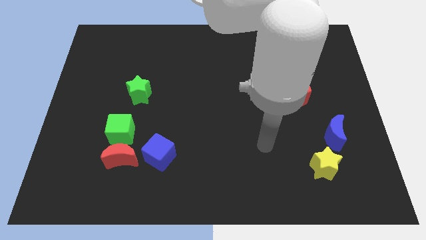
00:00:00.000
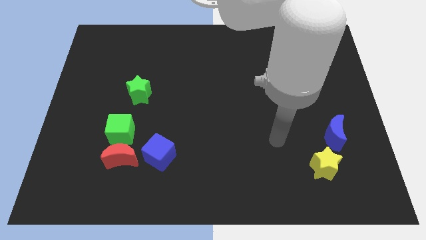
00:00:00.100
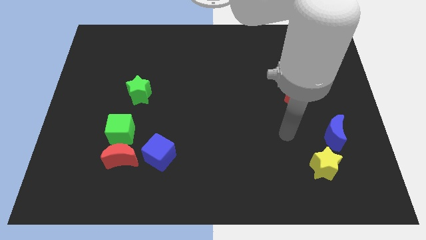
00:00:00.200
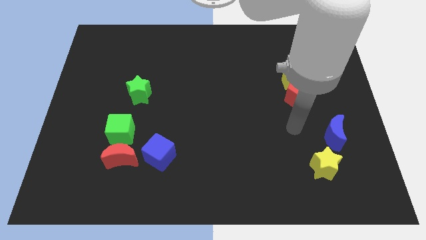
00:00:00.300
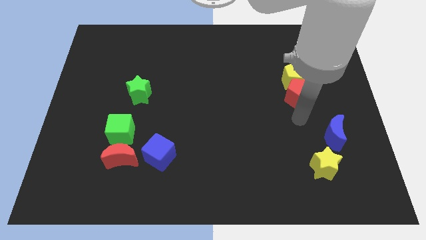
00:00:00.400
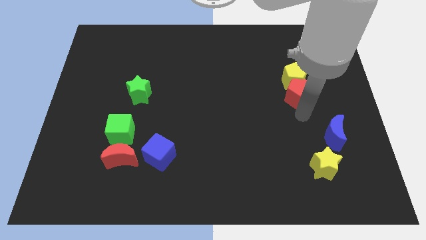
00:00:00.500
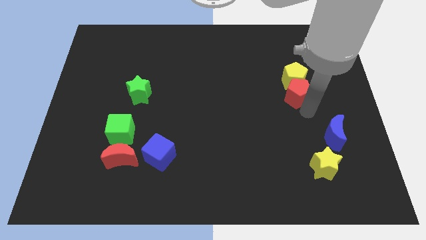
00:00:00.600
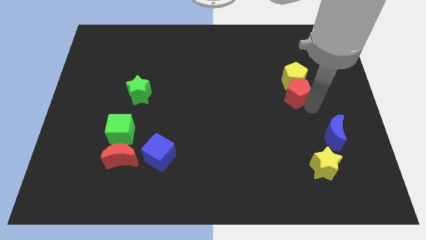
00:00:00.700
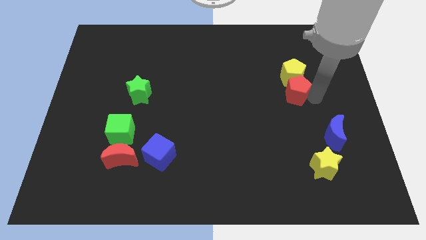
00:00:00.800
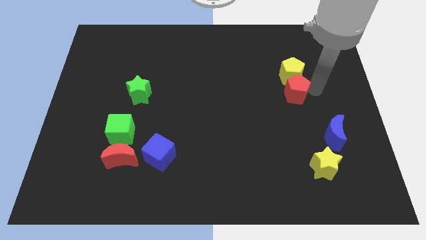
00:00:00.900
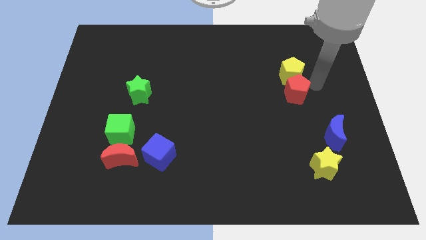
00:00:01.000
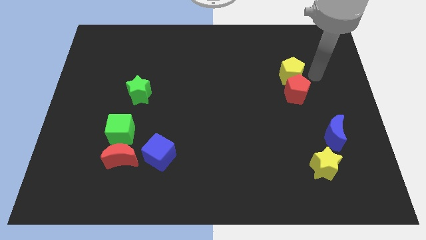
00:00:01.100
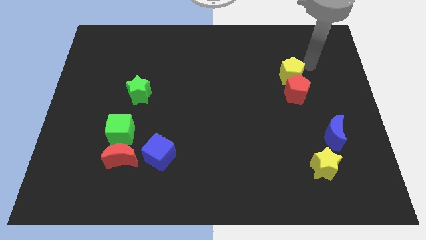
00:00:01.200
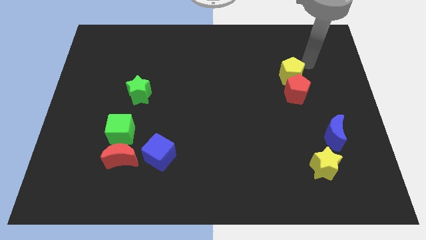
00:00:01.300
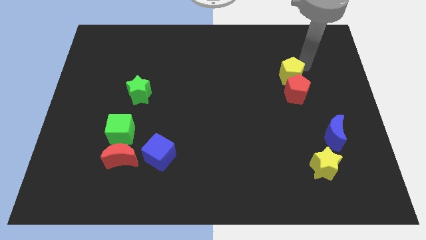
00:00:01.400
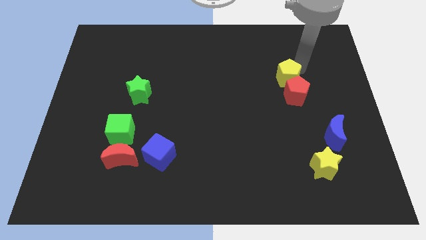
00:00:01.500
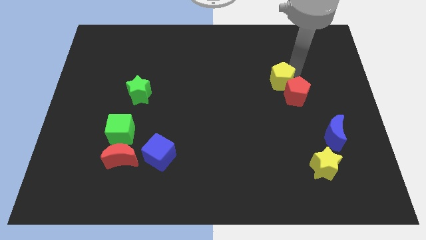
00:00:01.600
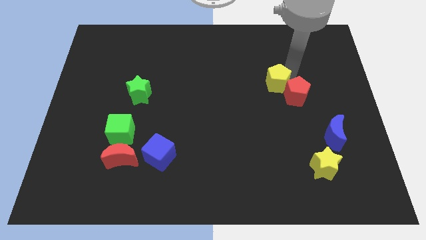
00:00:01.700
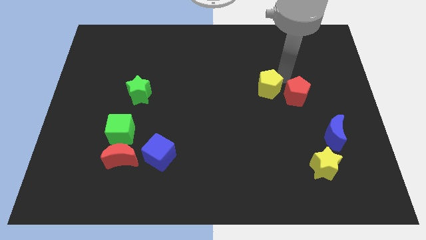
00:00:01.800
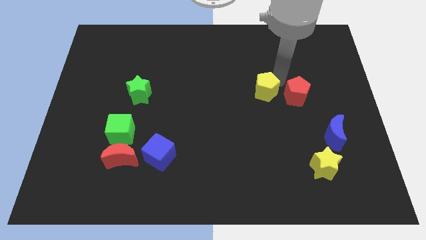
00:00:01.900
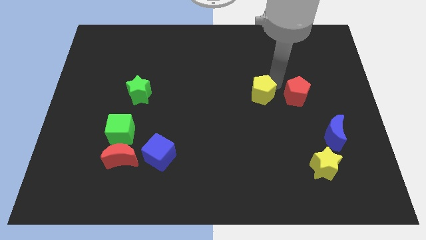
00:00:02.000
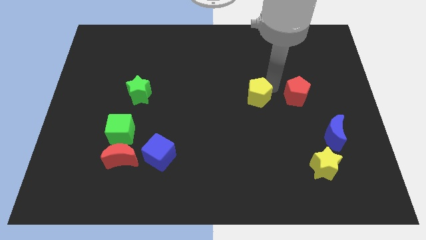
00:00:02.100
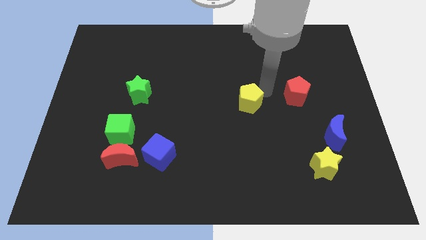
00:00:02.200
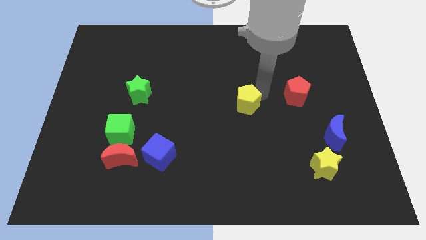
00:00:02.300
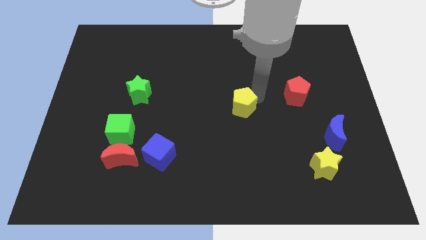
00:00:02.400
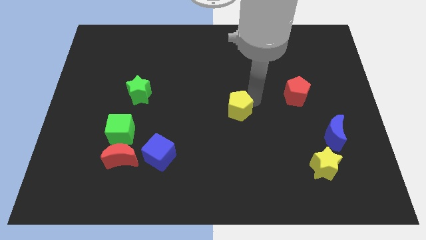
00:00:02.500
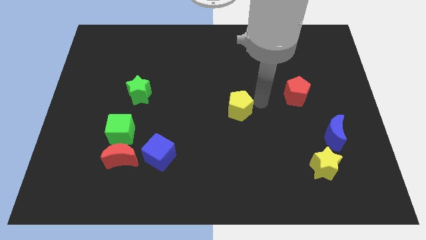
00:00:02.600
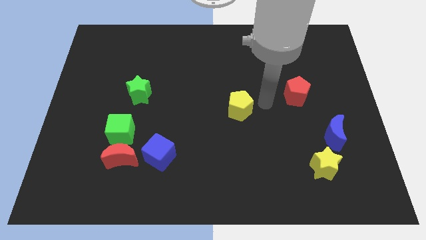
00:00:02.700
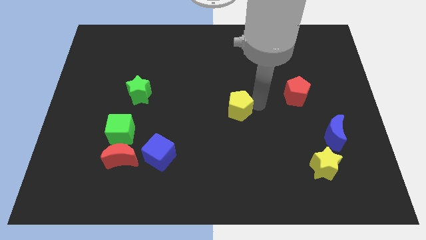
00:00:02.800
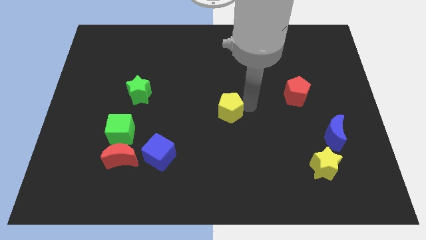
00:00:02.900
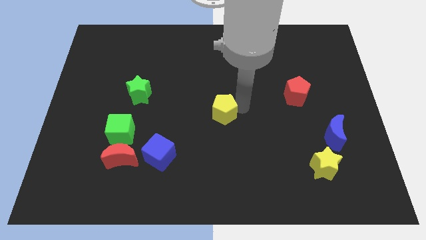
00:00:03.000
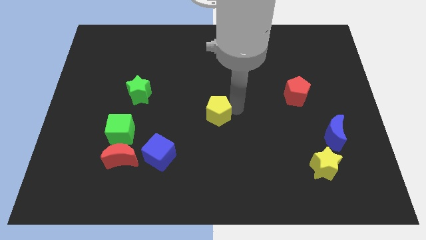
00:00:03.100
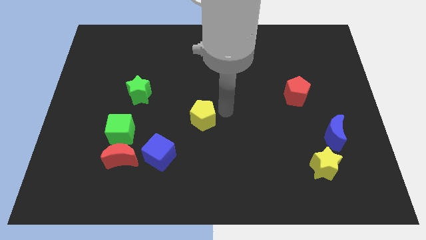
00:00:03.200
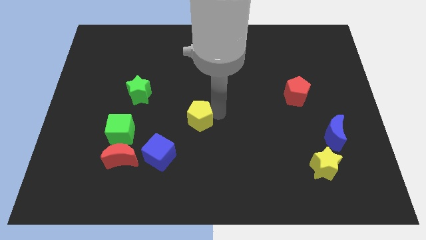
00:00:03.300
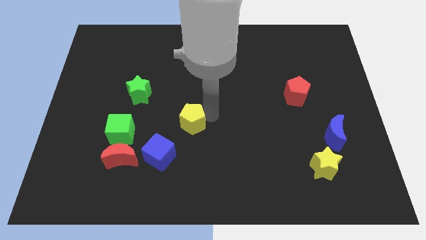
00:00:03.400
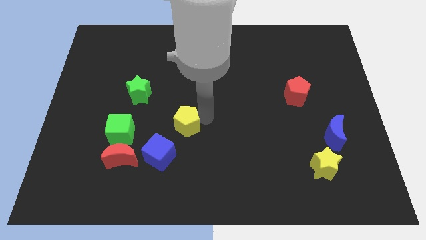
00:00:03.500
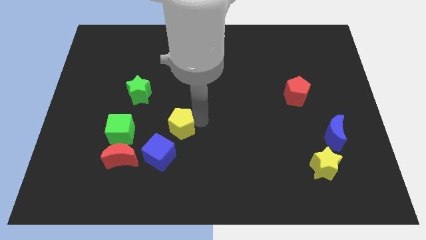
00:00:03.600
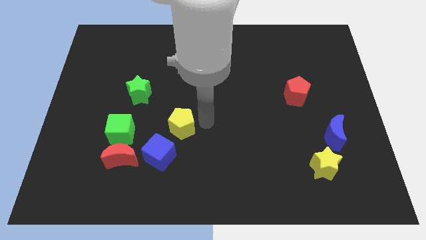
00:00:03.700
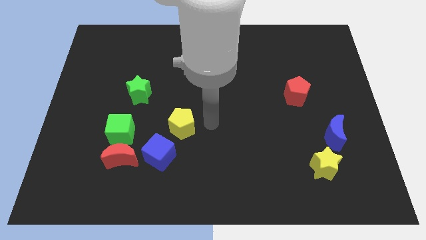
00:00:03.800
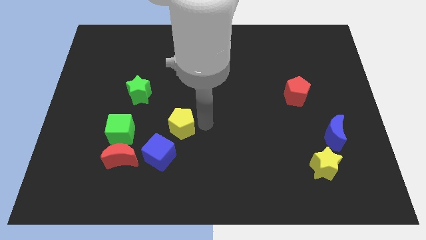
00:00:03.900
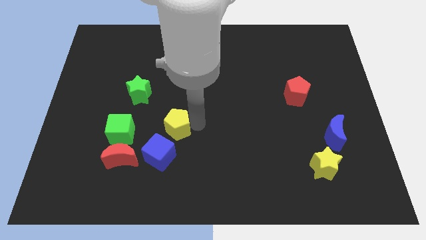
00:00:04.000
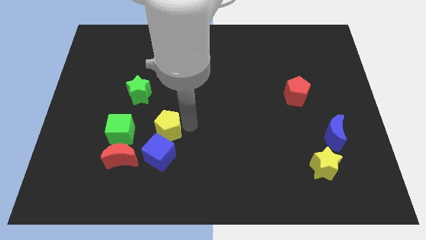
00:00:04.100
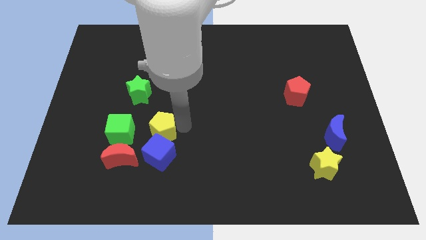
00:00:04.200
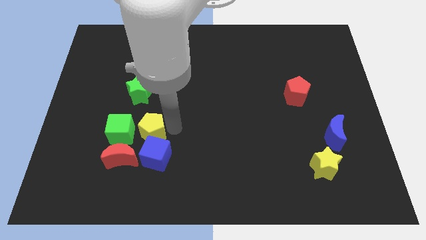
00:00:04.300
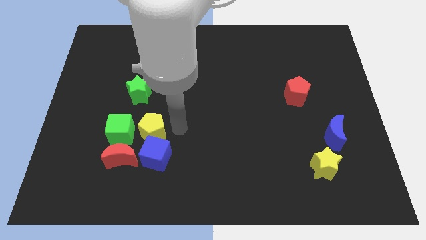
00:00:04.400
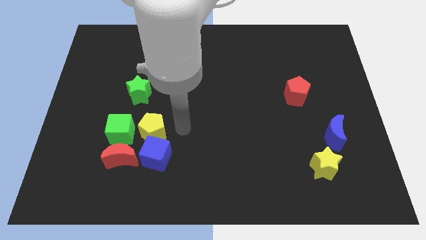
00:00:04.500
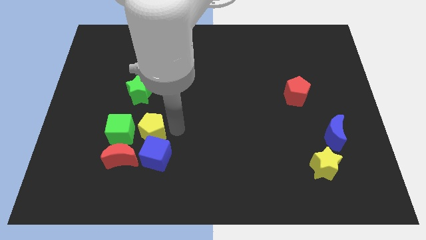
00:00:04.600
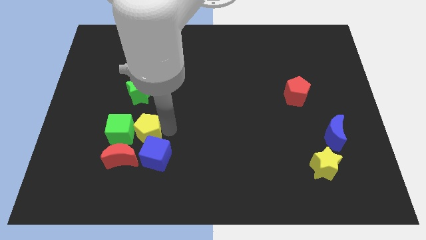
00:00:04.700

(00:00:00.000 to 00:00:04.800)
put the yellow pentagon next to the green cube

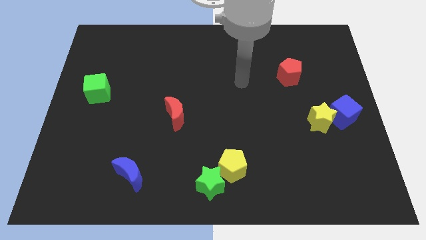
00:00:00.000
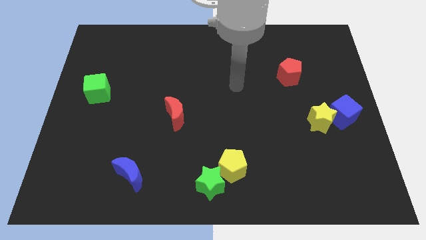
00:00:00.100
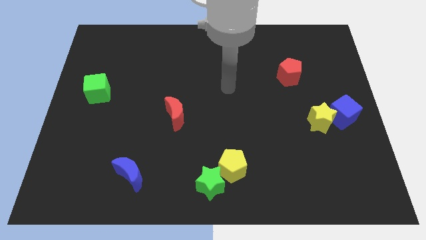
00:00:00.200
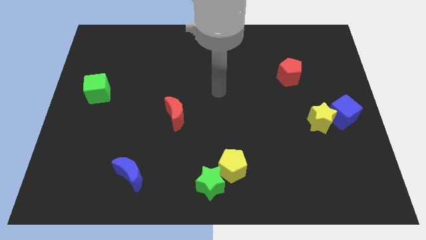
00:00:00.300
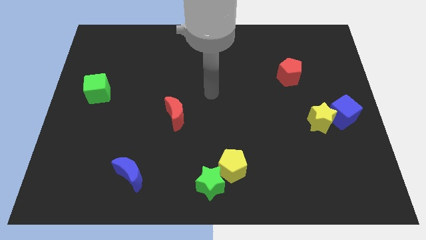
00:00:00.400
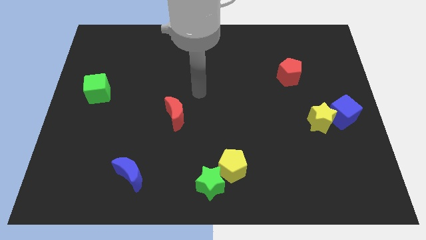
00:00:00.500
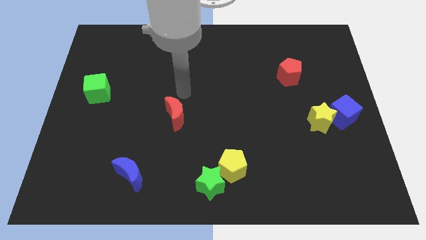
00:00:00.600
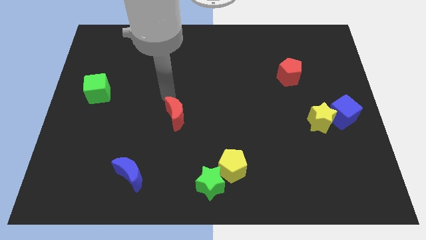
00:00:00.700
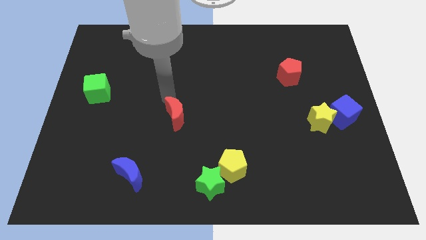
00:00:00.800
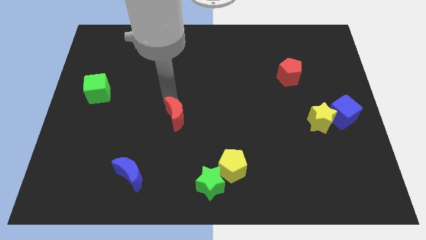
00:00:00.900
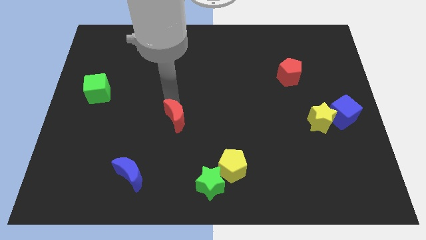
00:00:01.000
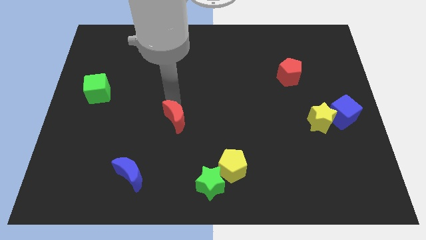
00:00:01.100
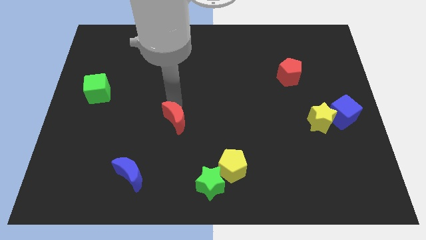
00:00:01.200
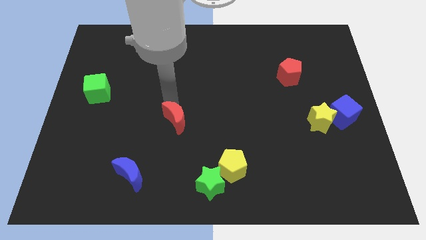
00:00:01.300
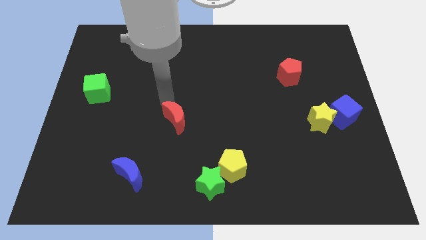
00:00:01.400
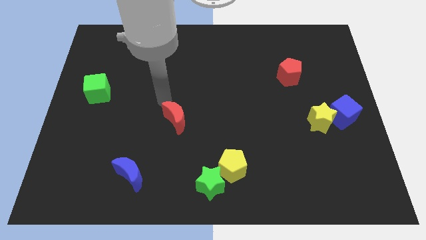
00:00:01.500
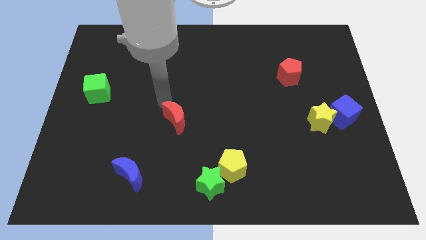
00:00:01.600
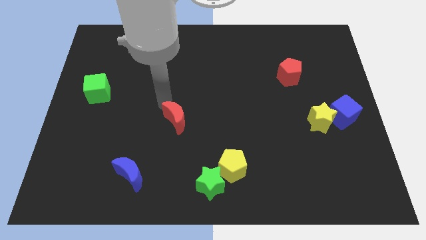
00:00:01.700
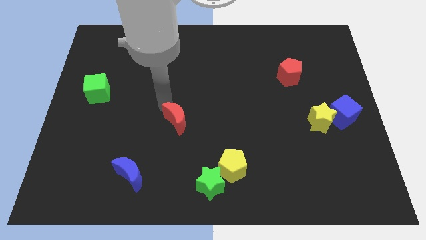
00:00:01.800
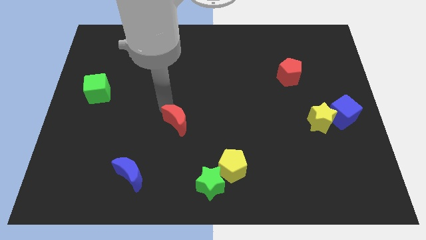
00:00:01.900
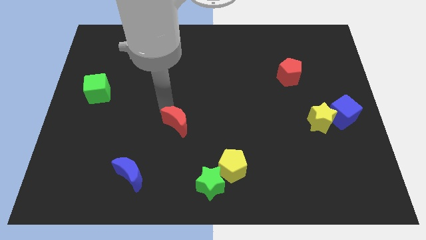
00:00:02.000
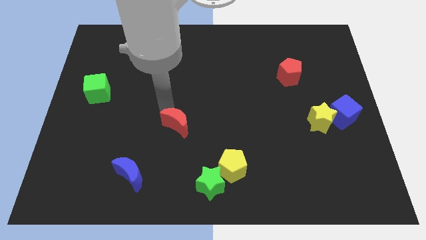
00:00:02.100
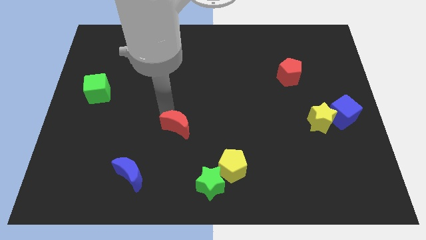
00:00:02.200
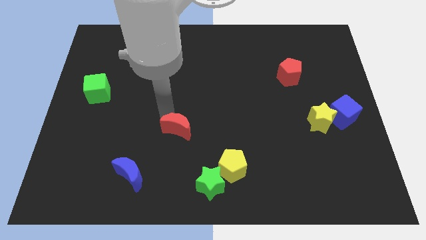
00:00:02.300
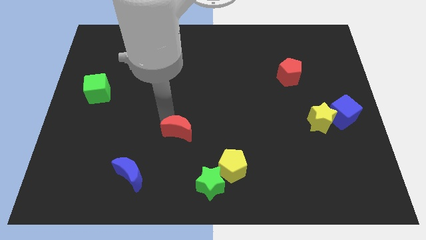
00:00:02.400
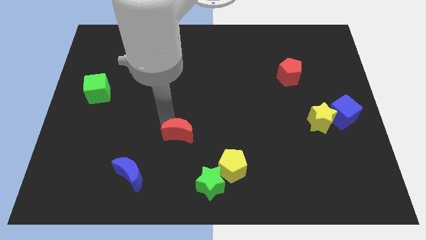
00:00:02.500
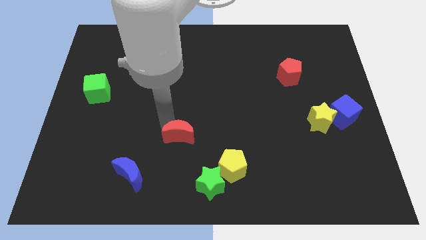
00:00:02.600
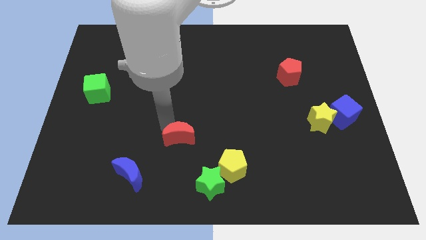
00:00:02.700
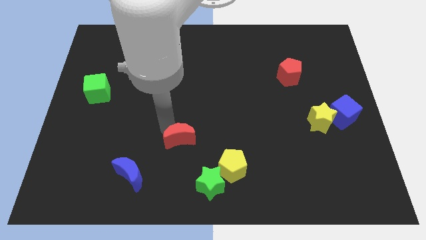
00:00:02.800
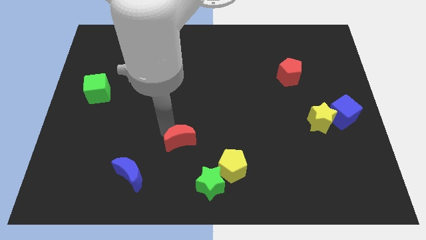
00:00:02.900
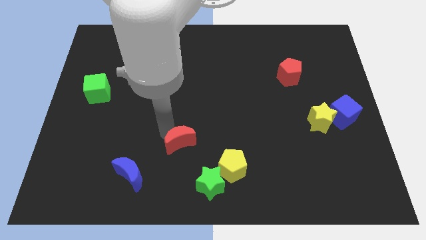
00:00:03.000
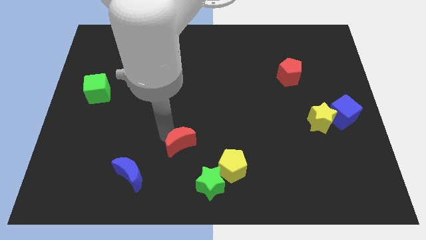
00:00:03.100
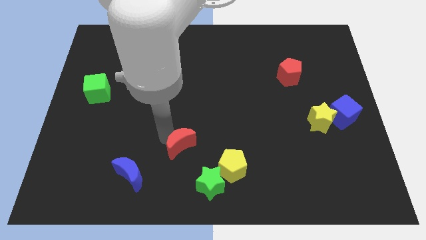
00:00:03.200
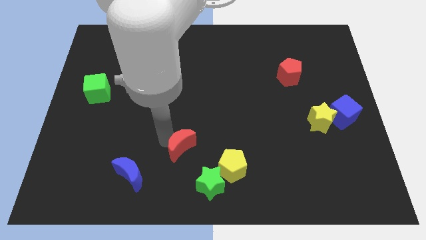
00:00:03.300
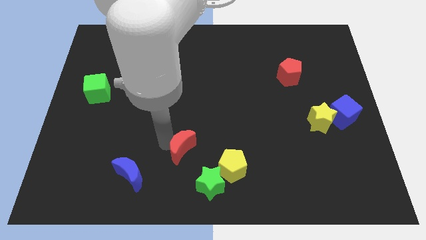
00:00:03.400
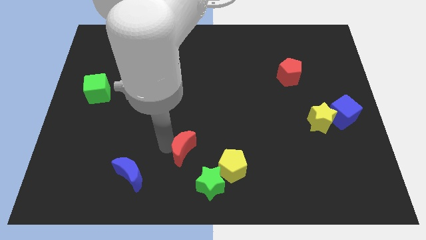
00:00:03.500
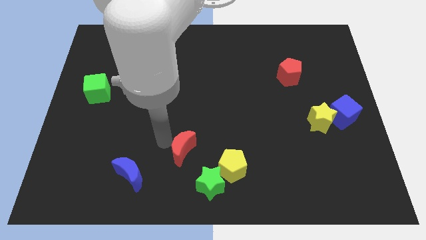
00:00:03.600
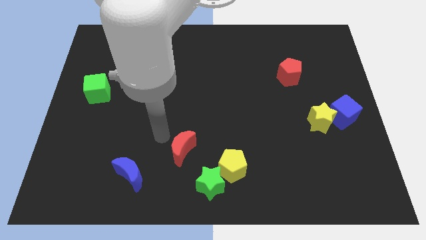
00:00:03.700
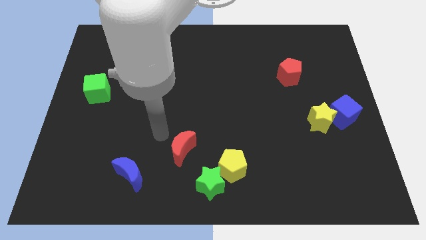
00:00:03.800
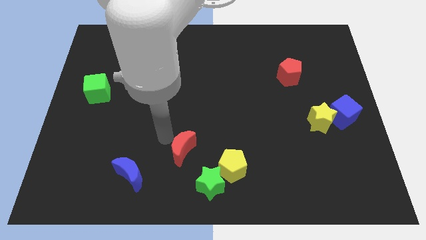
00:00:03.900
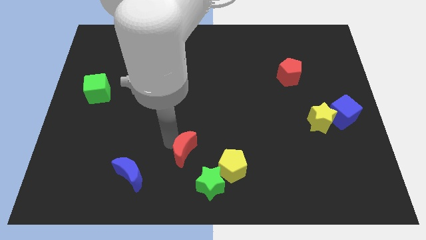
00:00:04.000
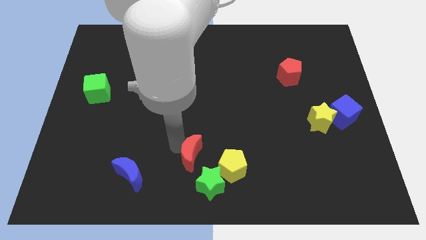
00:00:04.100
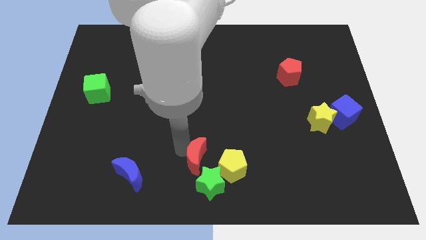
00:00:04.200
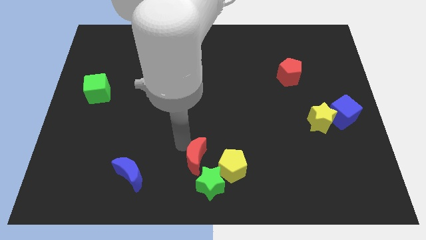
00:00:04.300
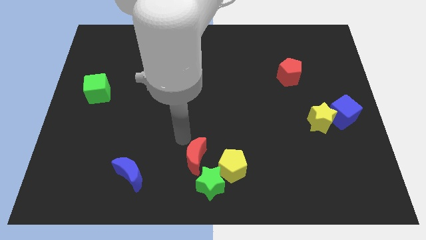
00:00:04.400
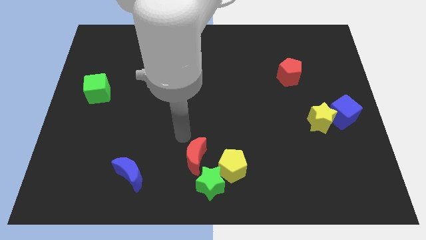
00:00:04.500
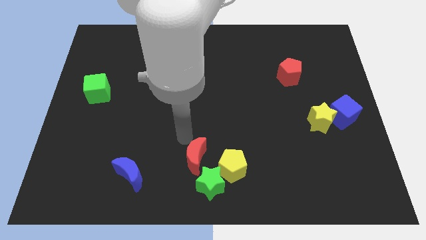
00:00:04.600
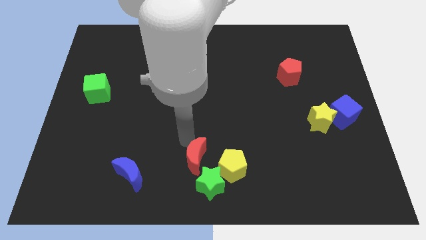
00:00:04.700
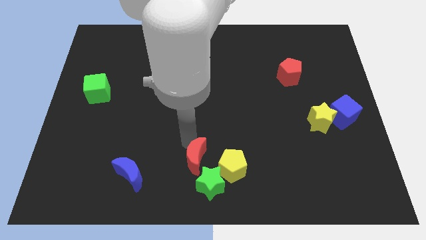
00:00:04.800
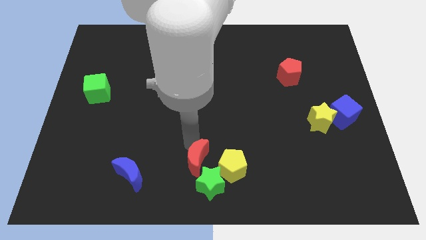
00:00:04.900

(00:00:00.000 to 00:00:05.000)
push the red moon towards the green star
